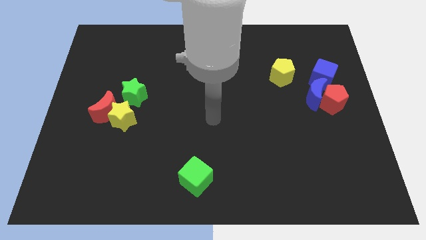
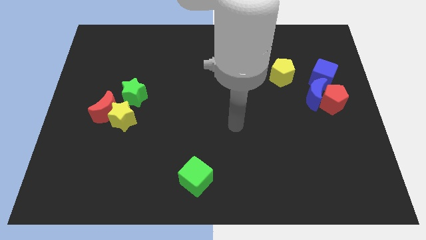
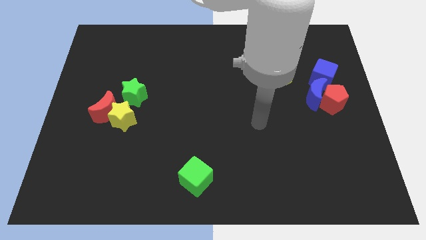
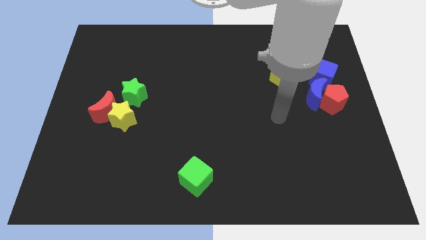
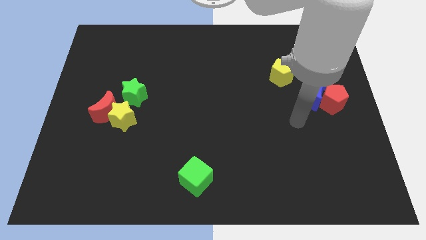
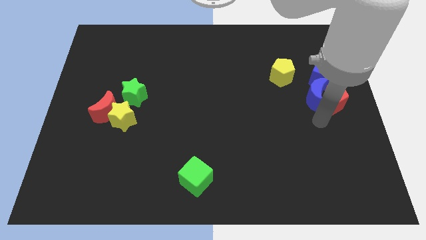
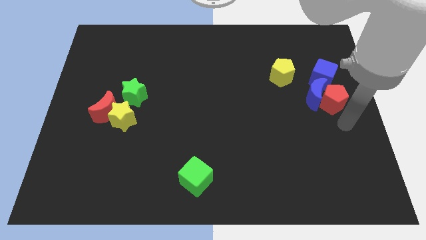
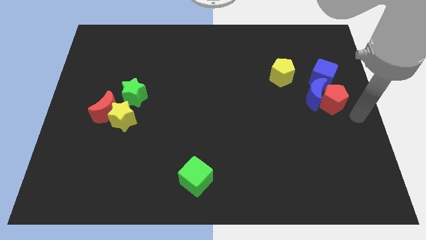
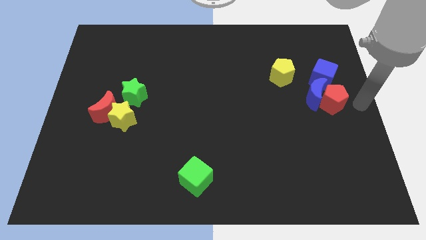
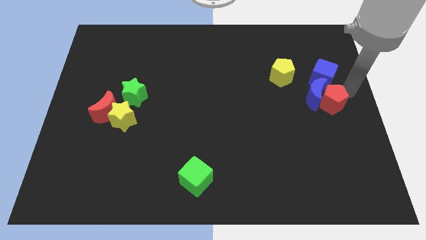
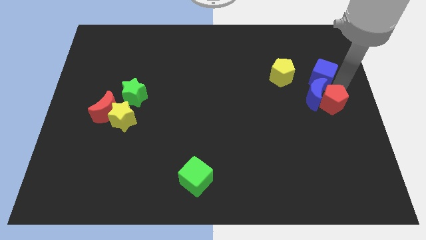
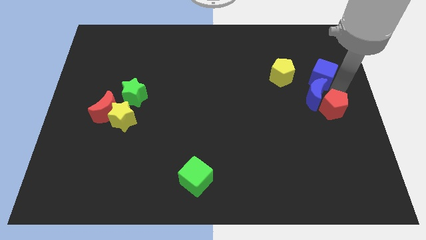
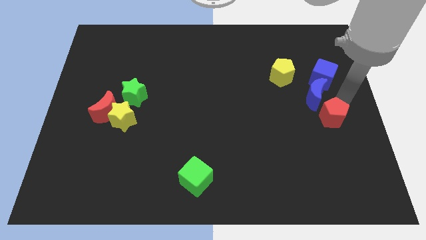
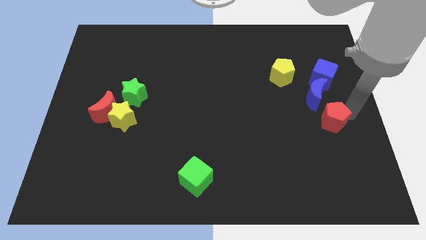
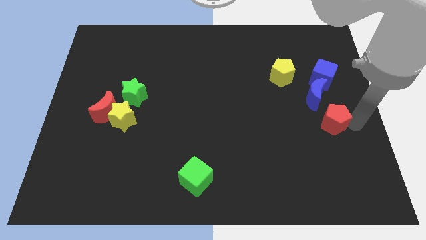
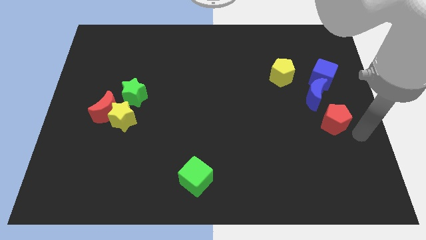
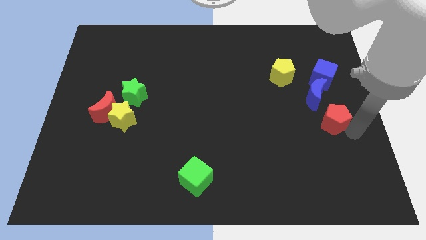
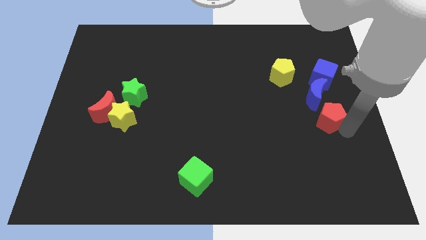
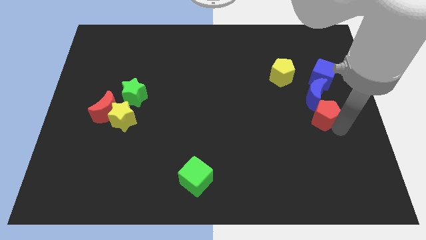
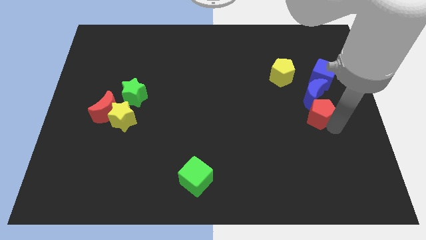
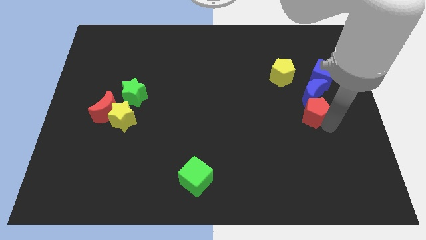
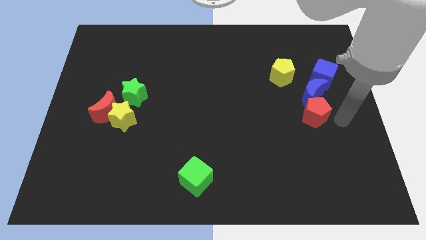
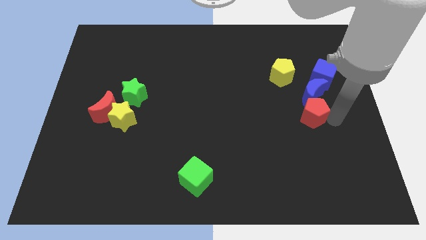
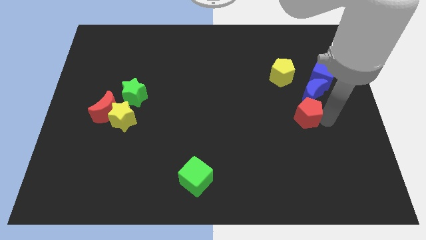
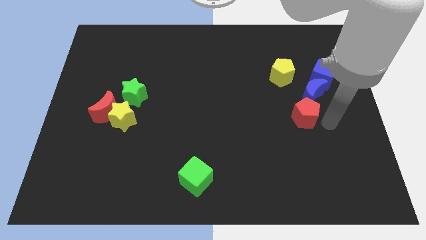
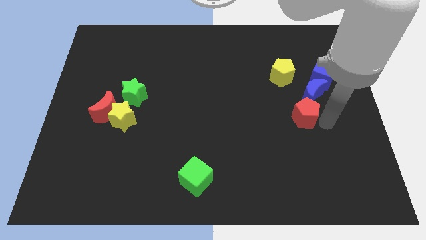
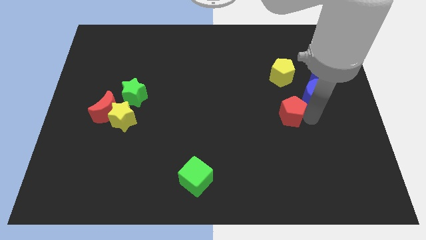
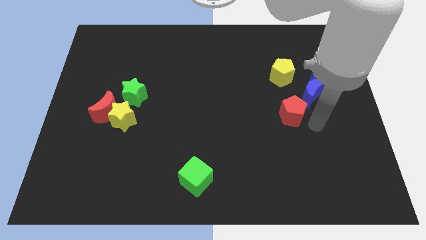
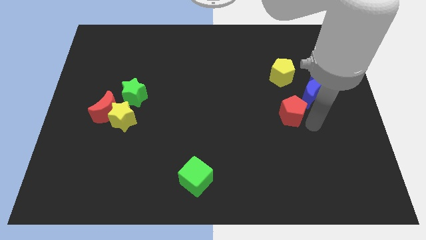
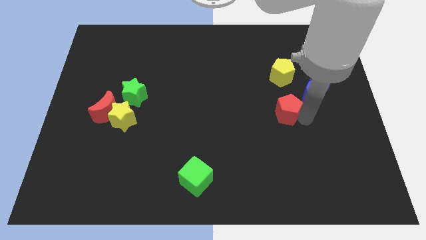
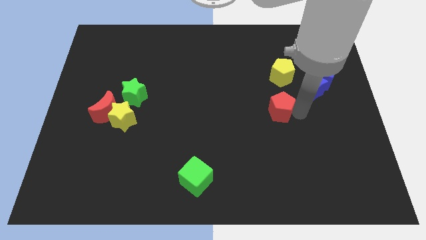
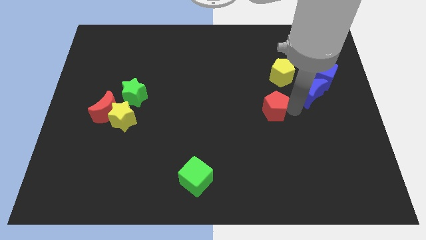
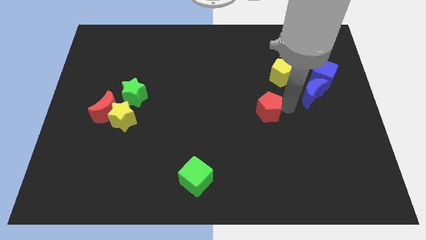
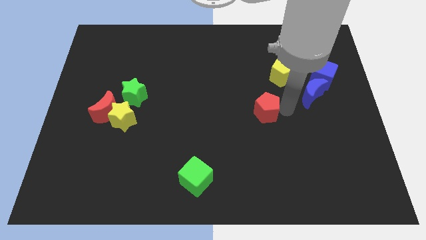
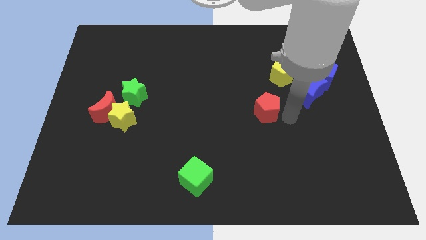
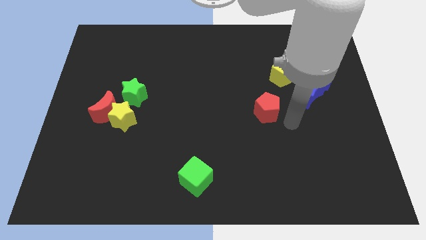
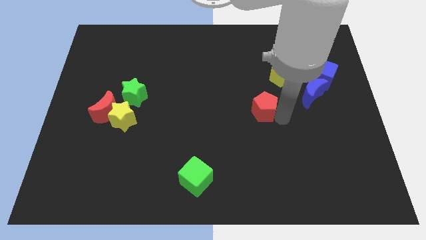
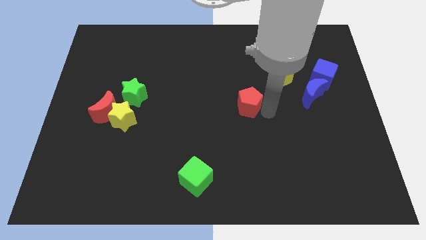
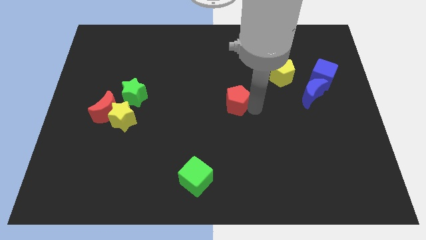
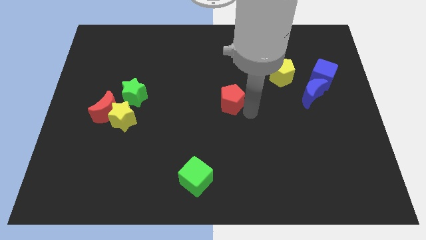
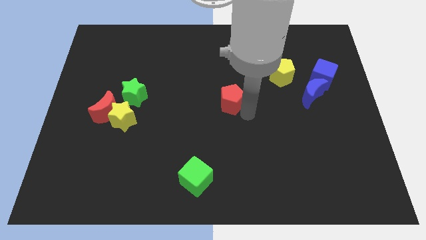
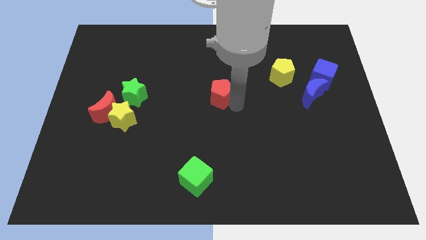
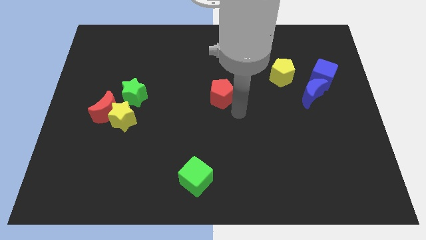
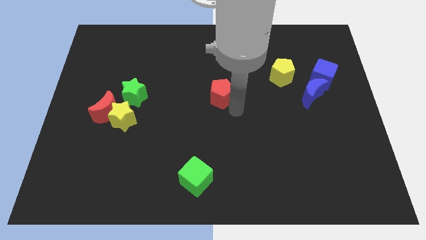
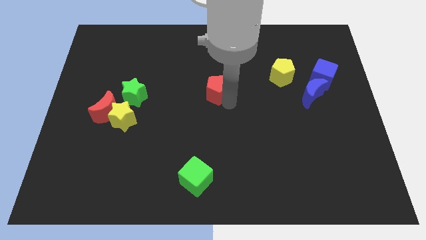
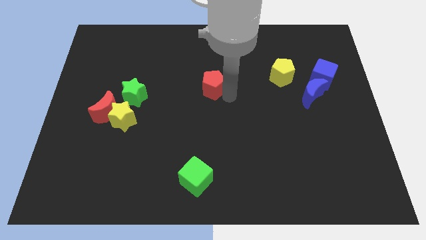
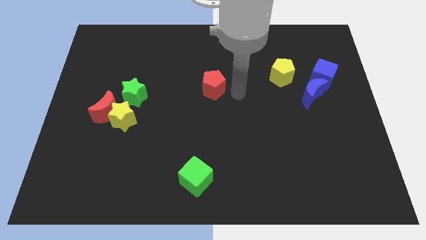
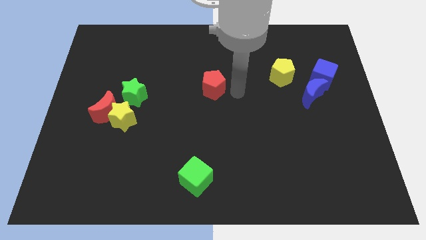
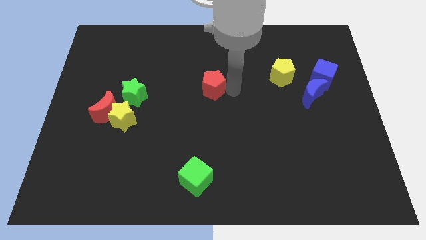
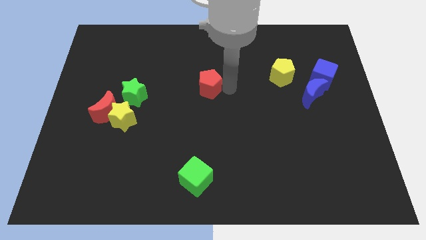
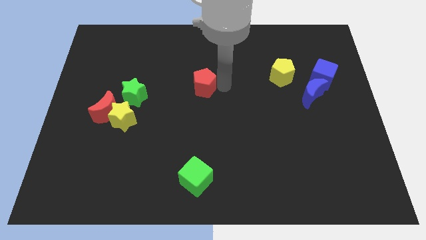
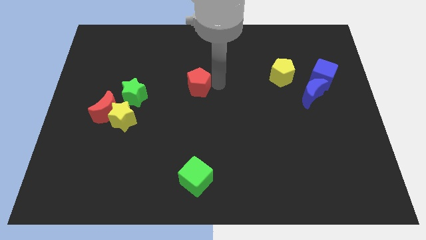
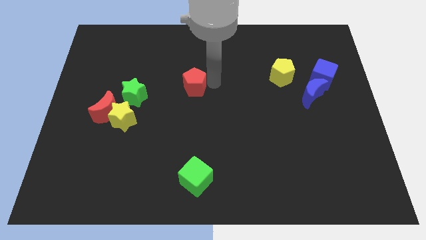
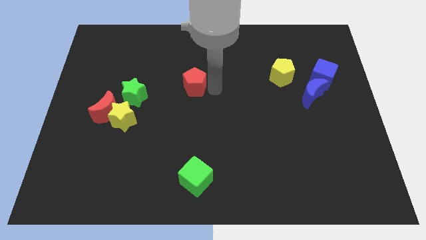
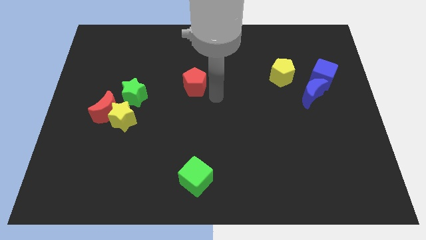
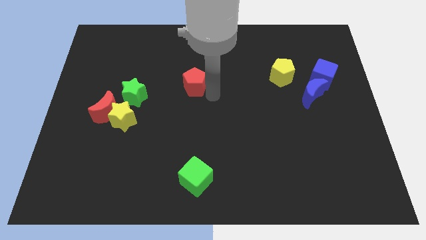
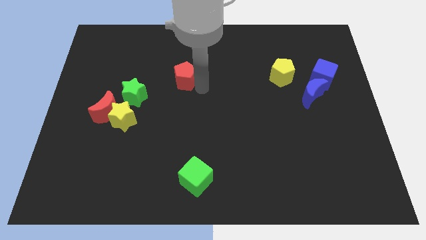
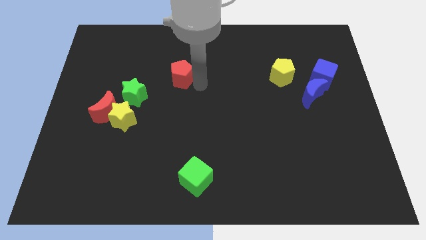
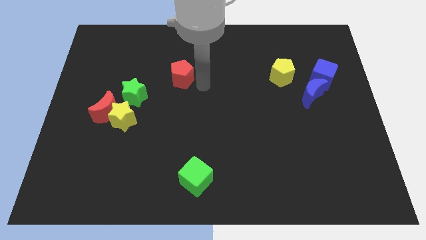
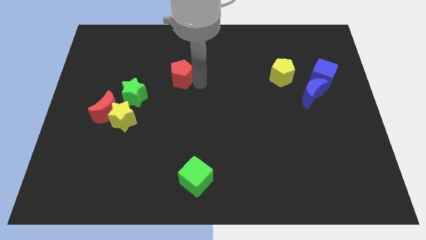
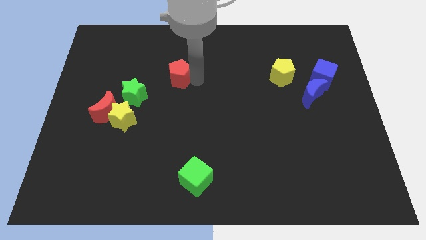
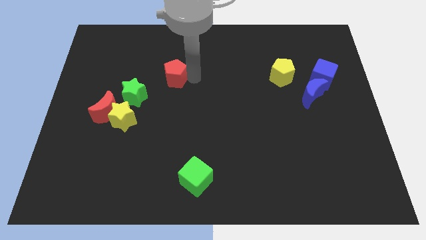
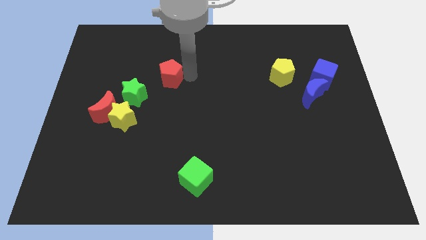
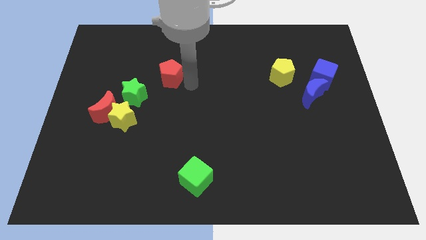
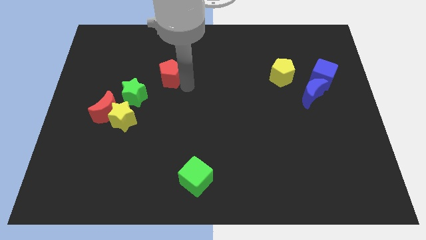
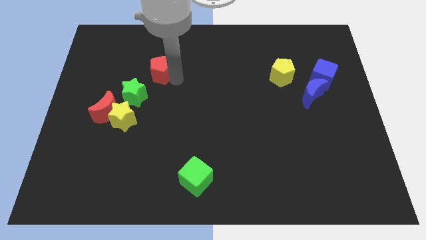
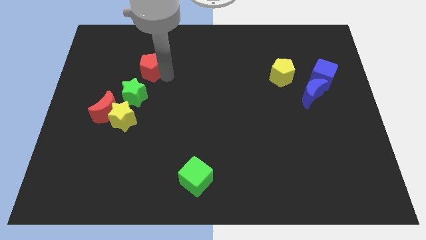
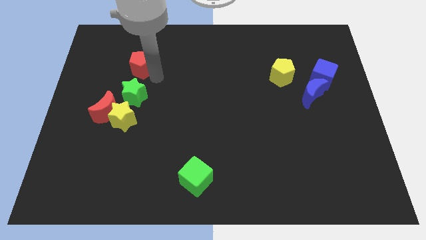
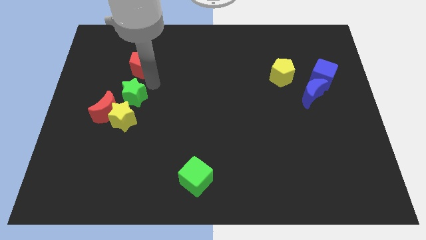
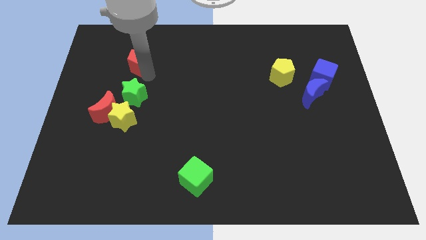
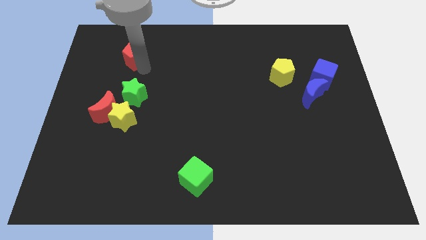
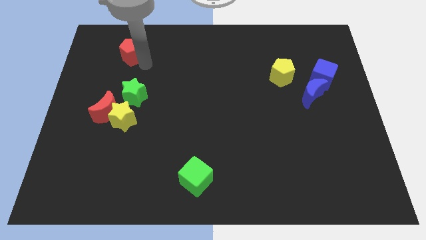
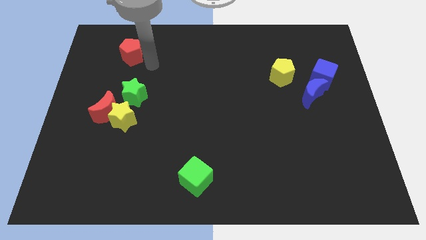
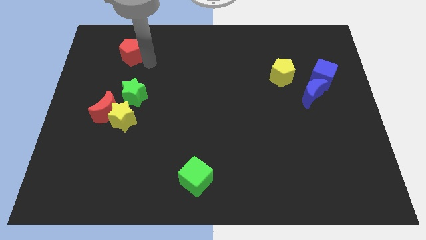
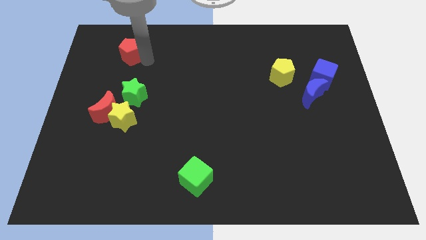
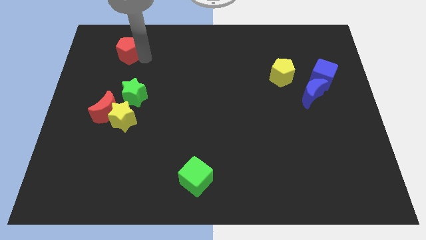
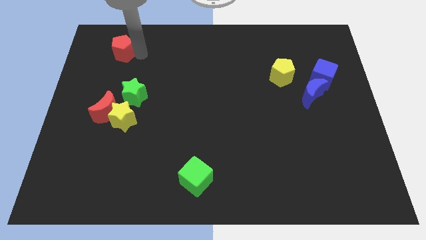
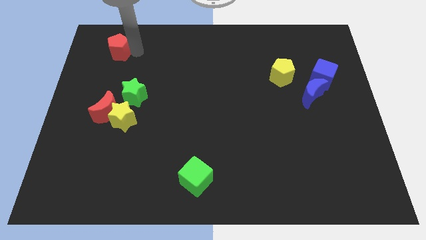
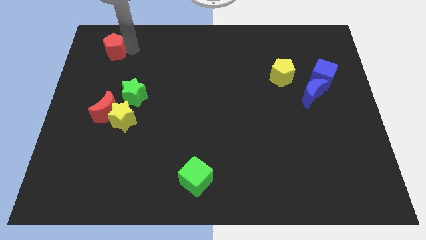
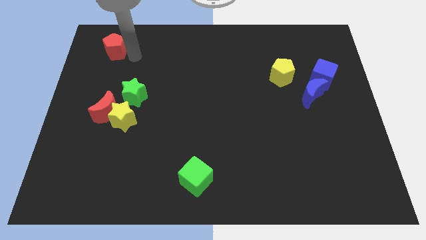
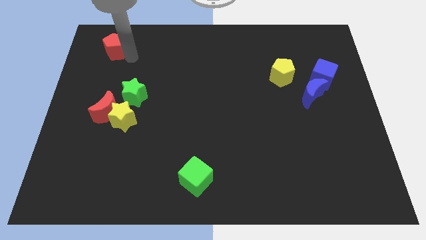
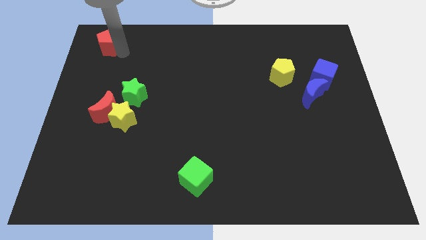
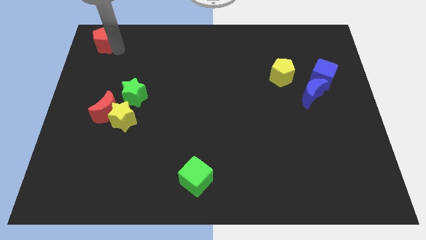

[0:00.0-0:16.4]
slide the red pentagon to the top left
